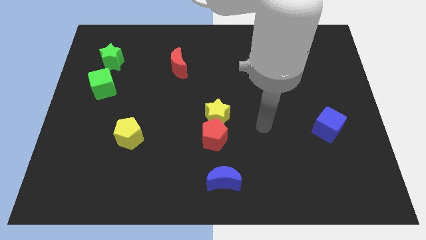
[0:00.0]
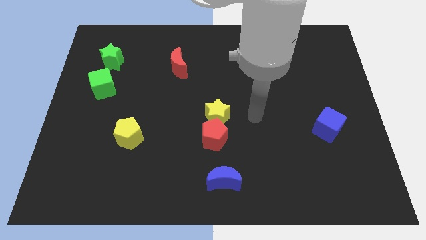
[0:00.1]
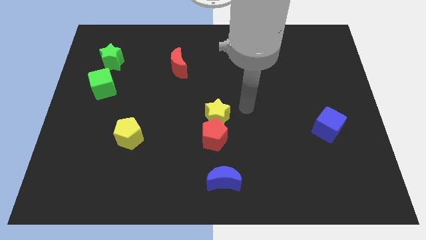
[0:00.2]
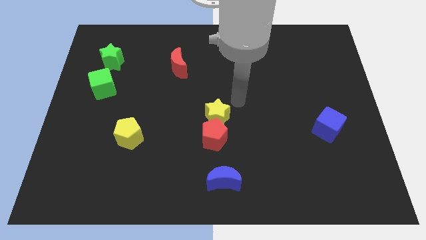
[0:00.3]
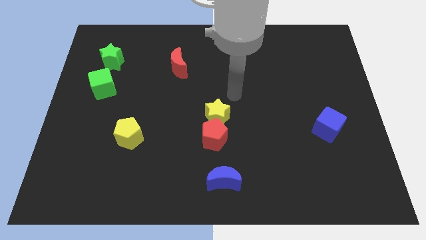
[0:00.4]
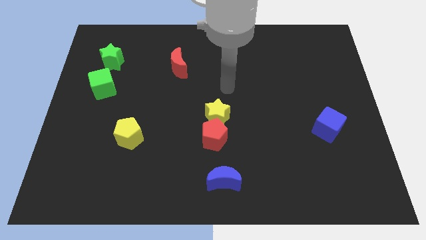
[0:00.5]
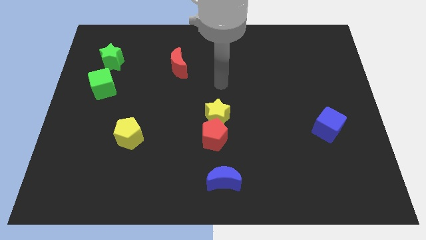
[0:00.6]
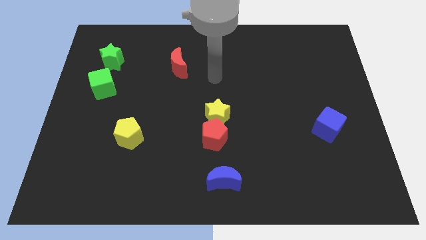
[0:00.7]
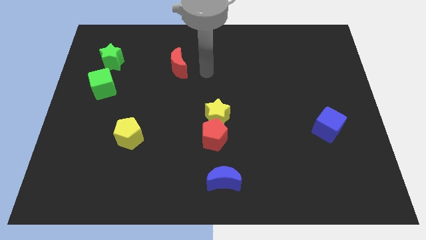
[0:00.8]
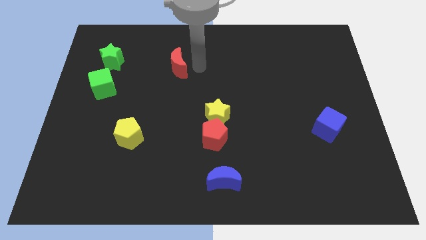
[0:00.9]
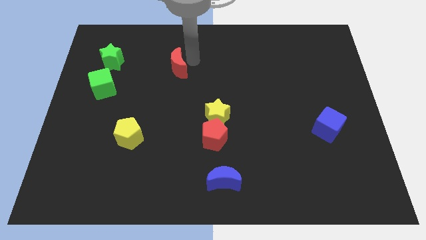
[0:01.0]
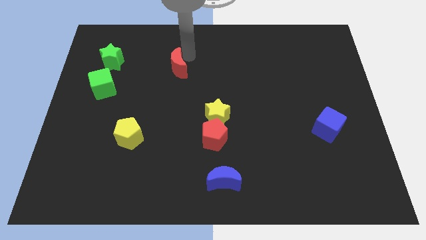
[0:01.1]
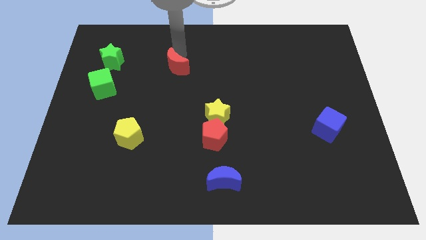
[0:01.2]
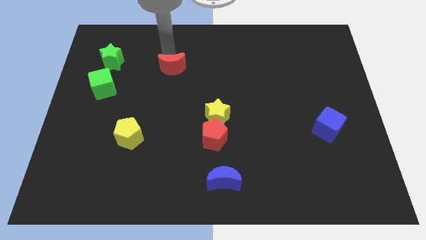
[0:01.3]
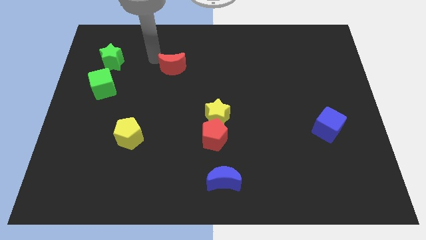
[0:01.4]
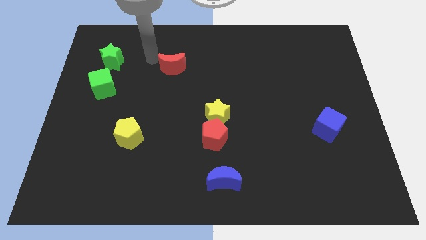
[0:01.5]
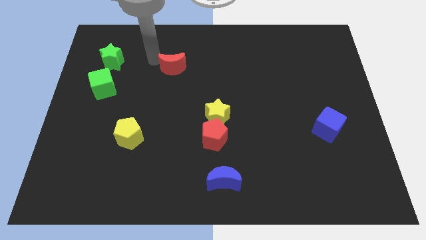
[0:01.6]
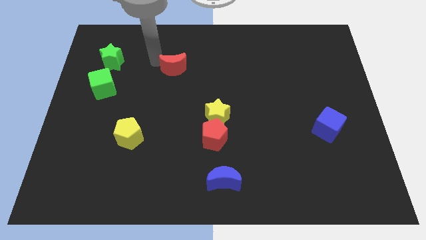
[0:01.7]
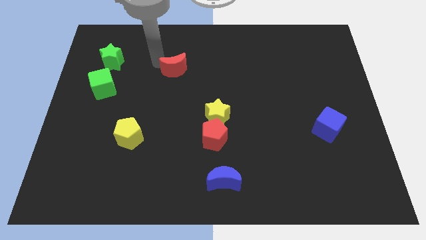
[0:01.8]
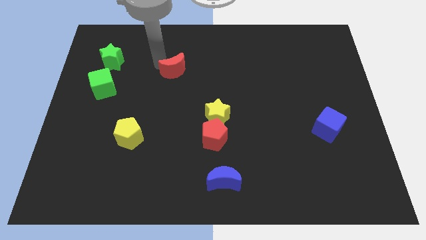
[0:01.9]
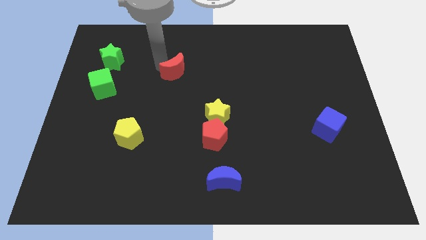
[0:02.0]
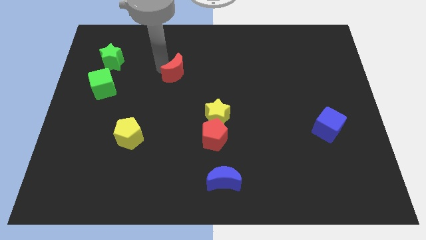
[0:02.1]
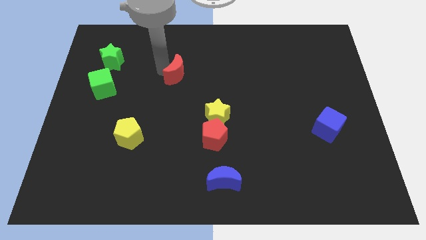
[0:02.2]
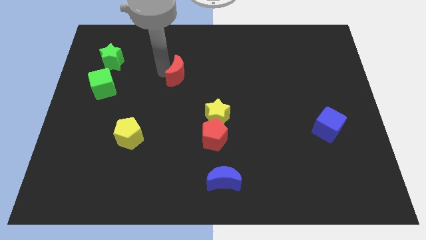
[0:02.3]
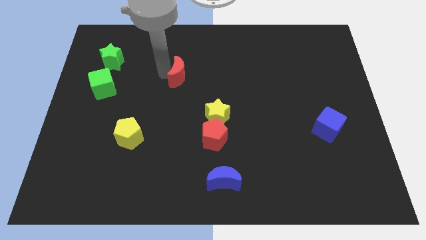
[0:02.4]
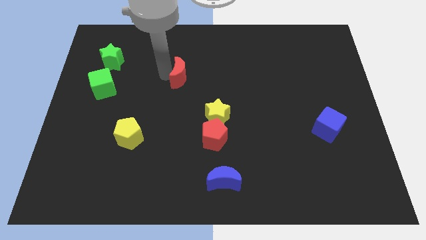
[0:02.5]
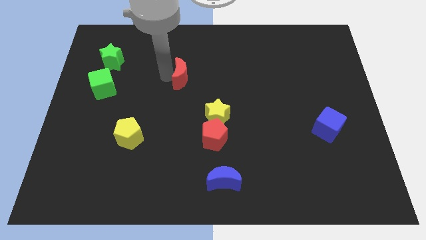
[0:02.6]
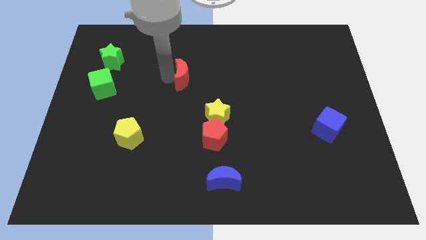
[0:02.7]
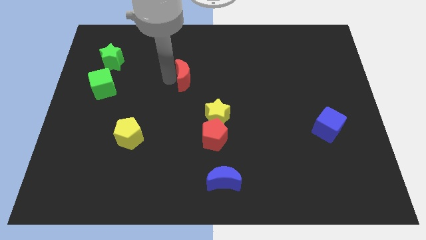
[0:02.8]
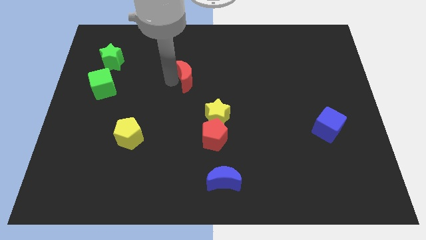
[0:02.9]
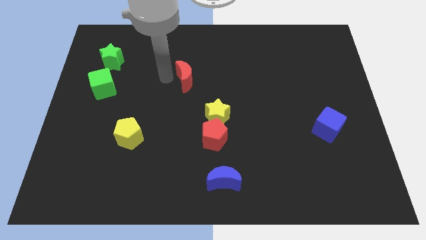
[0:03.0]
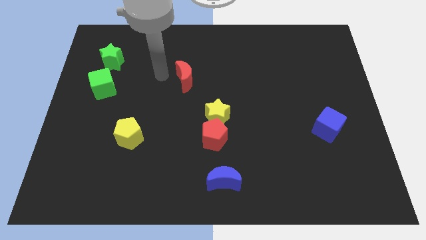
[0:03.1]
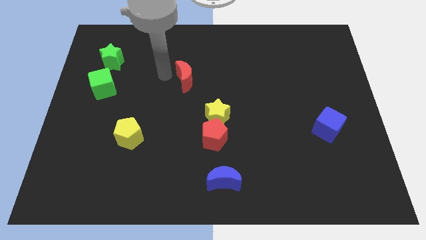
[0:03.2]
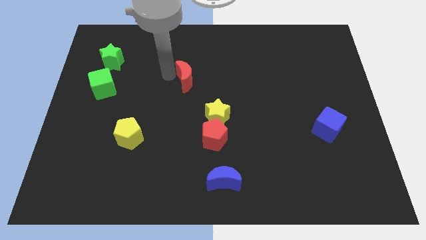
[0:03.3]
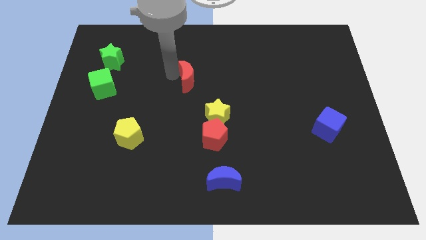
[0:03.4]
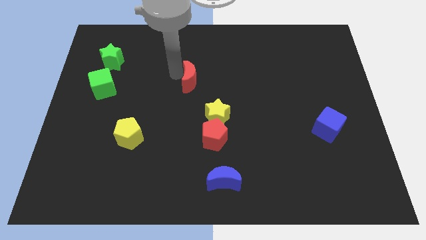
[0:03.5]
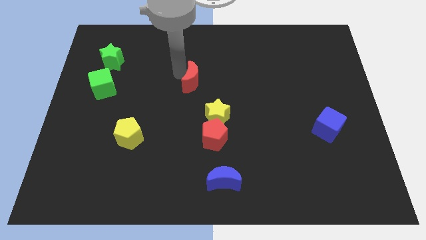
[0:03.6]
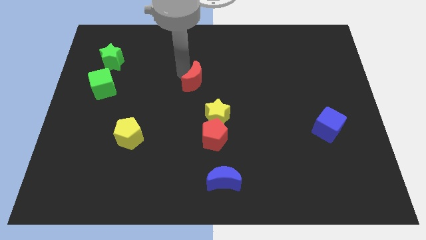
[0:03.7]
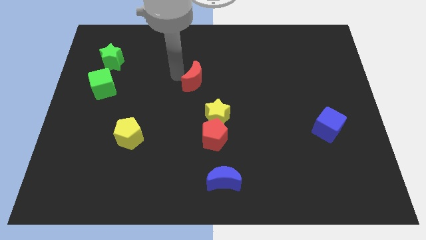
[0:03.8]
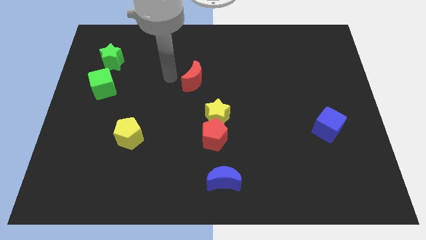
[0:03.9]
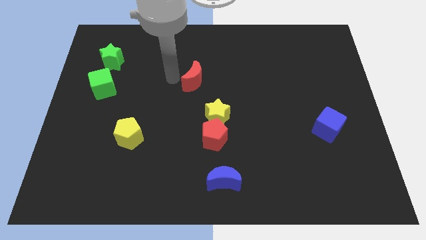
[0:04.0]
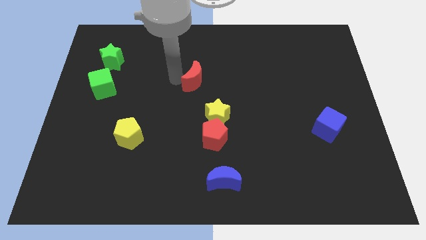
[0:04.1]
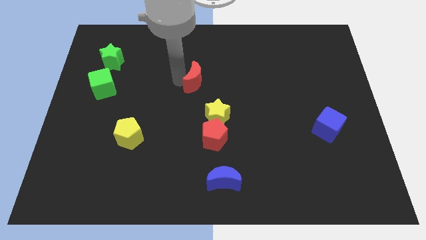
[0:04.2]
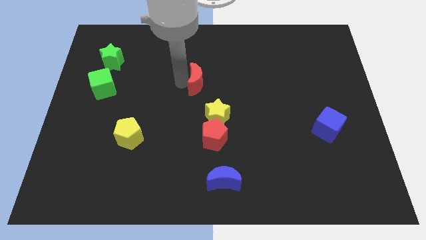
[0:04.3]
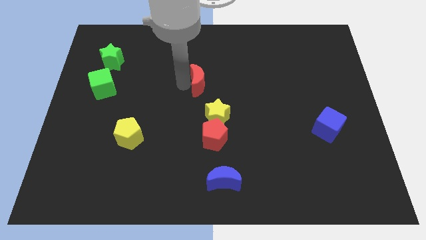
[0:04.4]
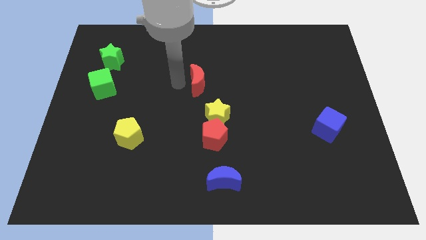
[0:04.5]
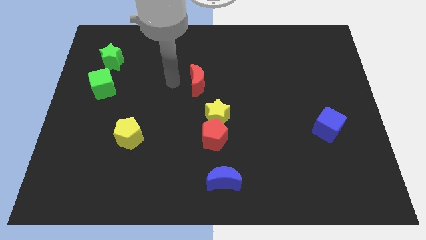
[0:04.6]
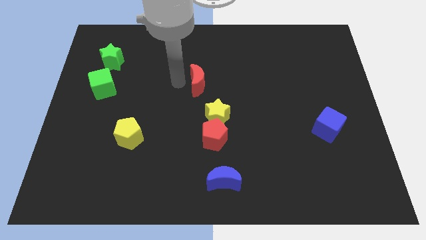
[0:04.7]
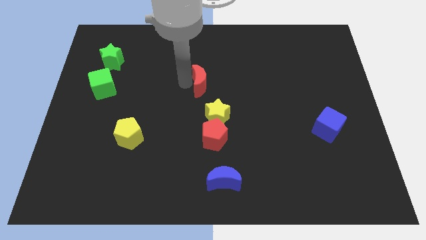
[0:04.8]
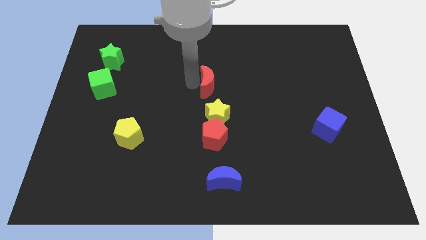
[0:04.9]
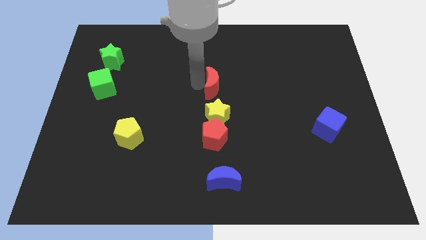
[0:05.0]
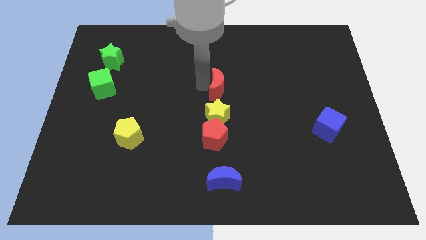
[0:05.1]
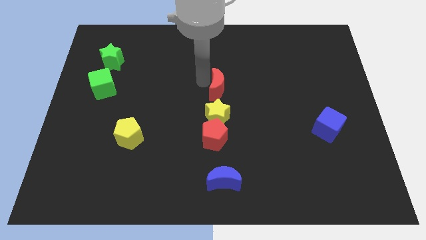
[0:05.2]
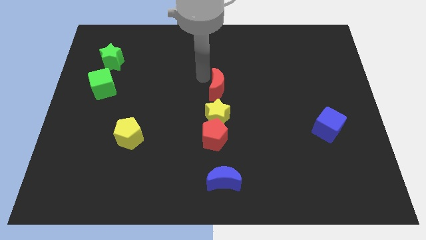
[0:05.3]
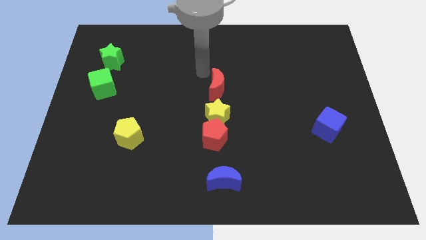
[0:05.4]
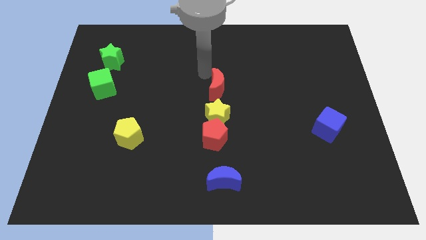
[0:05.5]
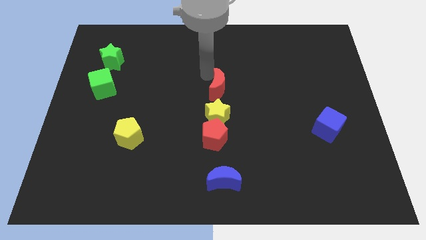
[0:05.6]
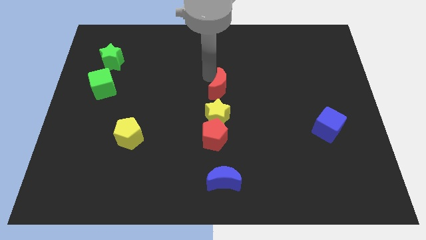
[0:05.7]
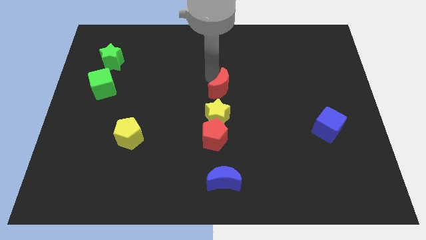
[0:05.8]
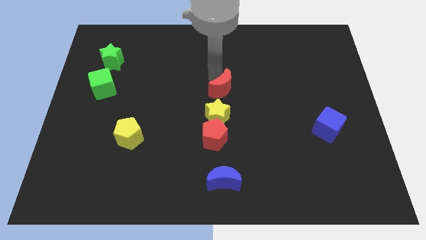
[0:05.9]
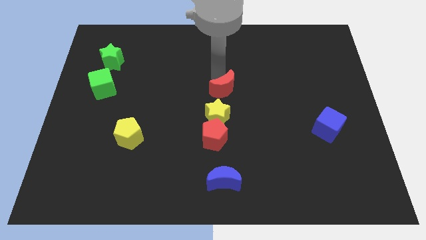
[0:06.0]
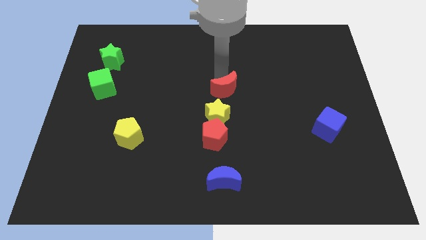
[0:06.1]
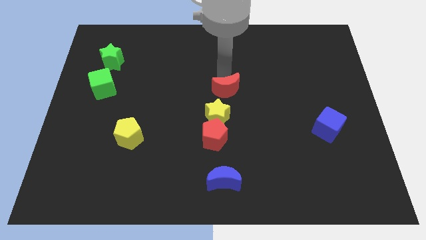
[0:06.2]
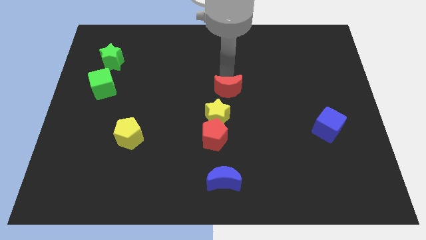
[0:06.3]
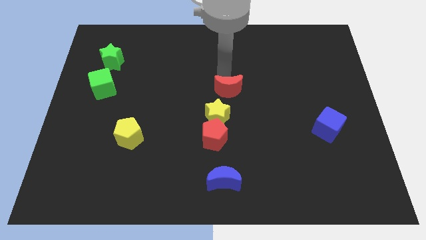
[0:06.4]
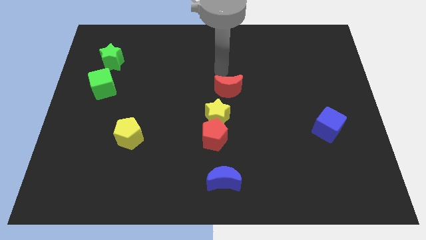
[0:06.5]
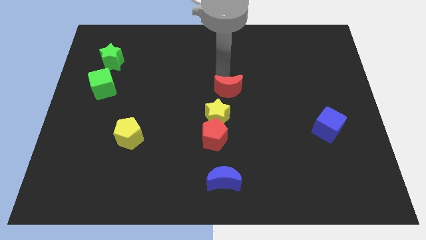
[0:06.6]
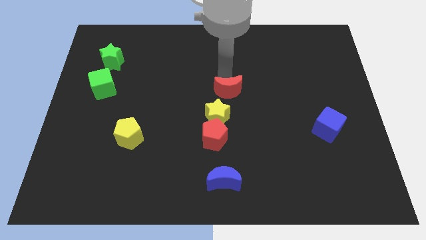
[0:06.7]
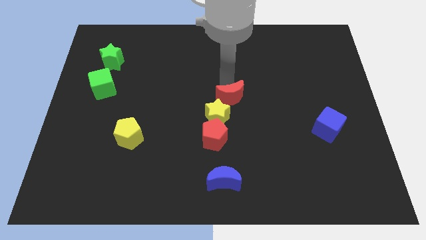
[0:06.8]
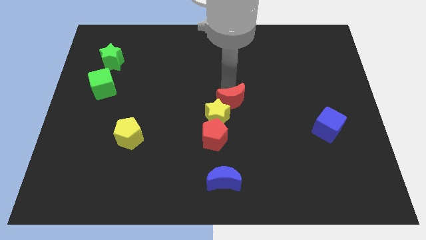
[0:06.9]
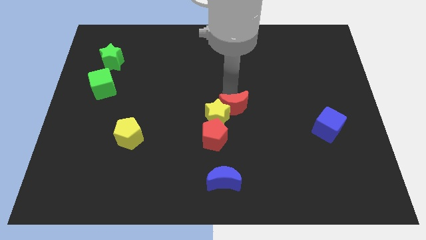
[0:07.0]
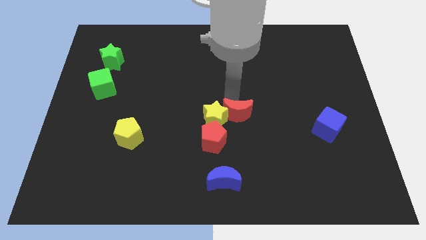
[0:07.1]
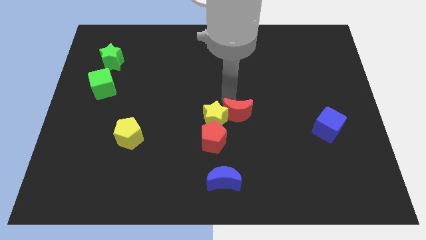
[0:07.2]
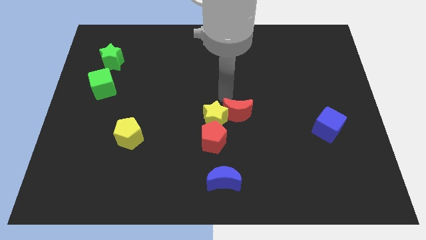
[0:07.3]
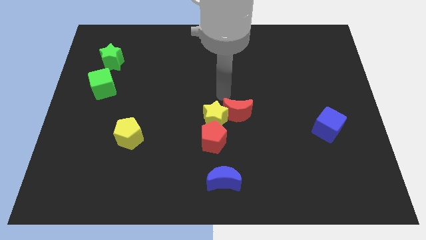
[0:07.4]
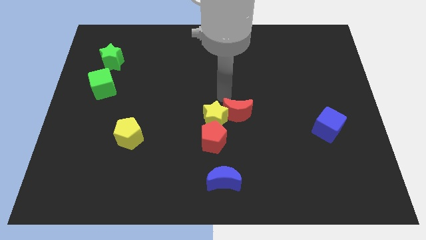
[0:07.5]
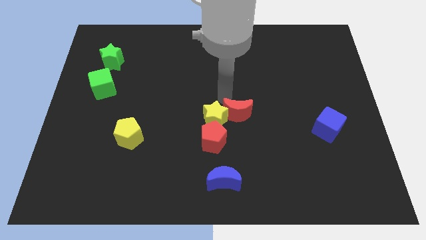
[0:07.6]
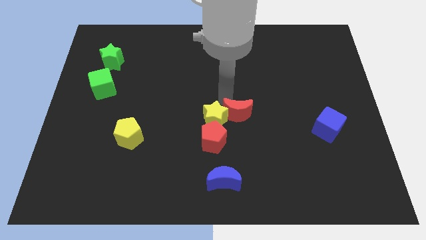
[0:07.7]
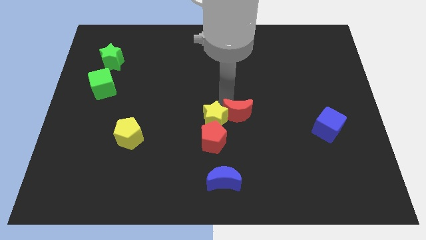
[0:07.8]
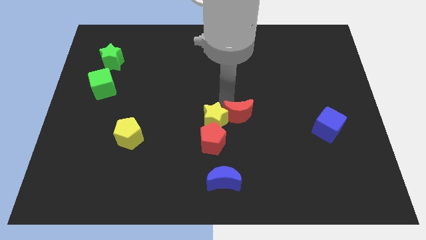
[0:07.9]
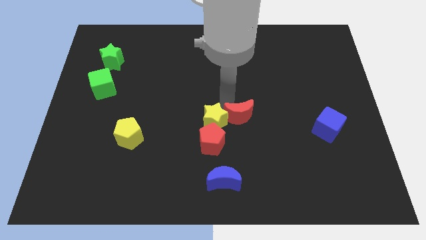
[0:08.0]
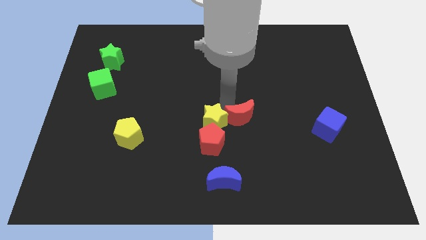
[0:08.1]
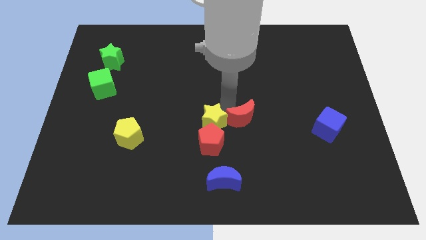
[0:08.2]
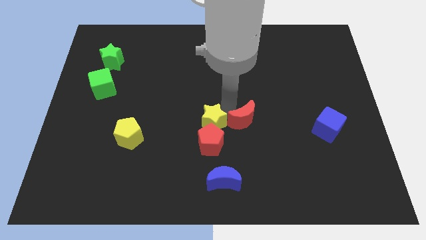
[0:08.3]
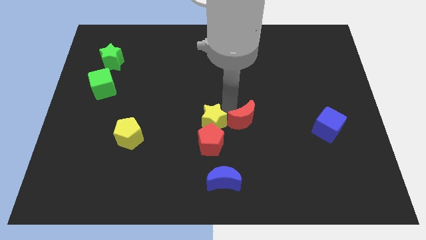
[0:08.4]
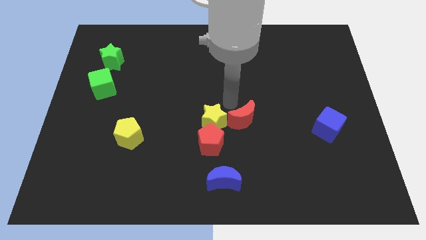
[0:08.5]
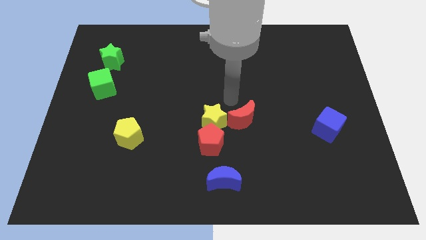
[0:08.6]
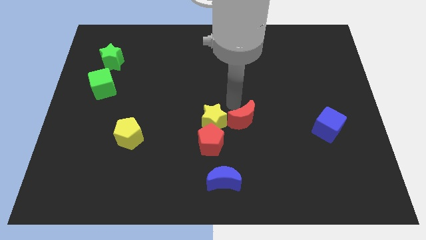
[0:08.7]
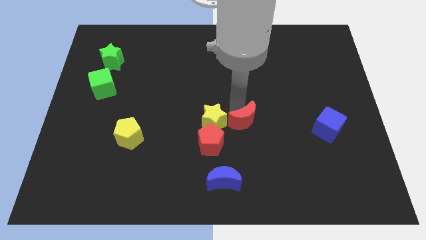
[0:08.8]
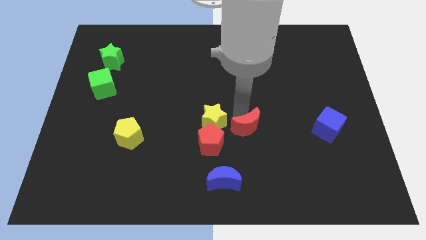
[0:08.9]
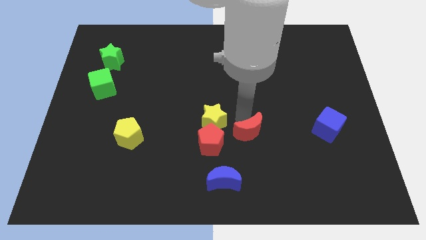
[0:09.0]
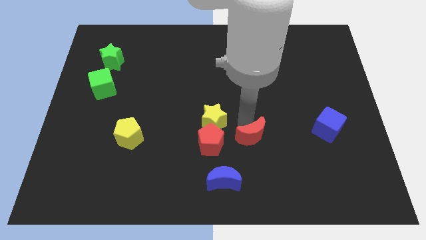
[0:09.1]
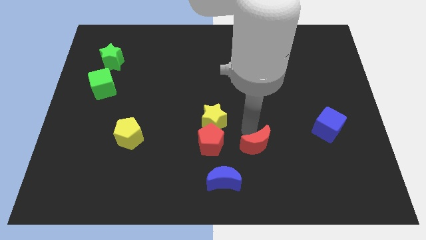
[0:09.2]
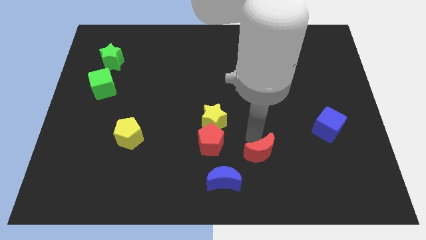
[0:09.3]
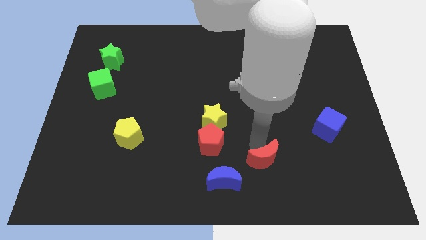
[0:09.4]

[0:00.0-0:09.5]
slide the red moon right of the blue moon
